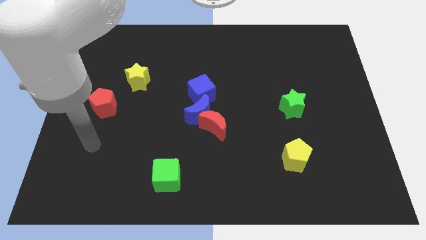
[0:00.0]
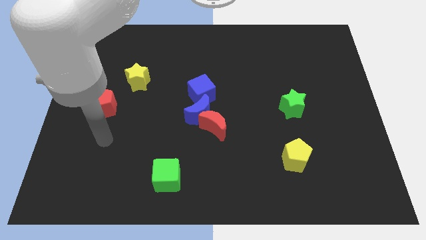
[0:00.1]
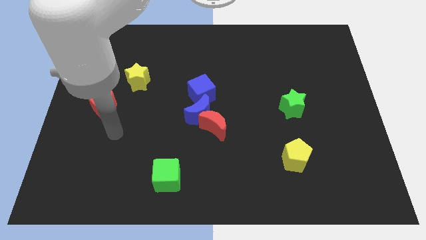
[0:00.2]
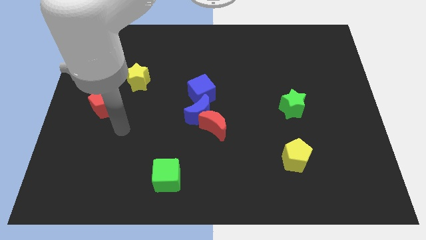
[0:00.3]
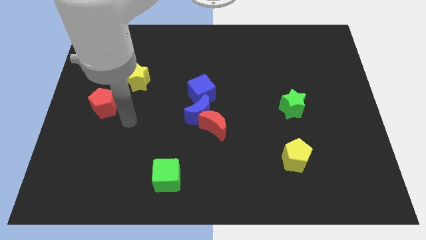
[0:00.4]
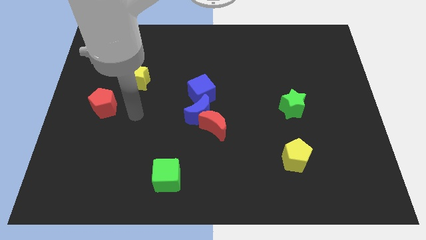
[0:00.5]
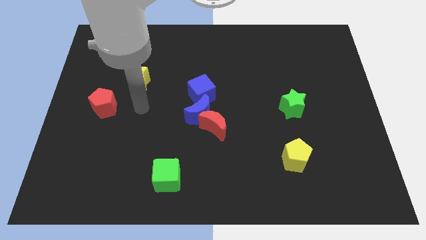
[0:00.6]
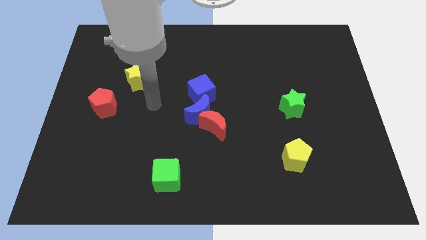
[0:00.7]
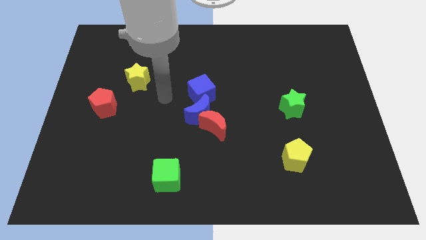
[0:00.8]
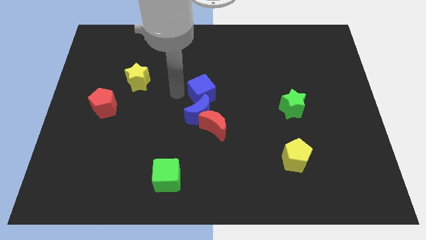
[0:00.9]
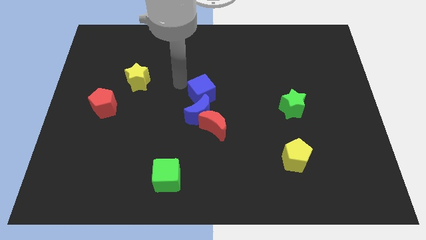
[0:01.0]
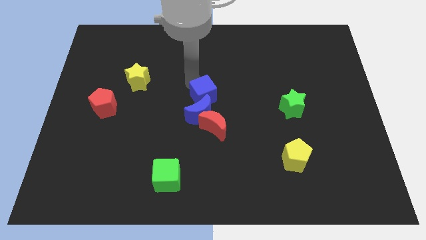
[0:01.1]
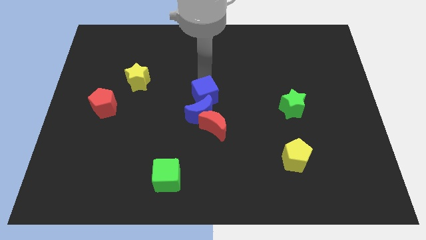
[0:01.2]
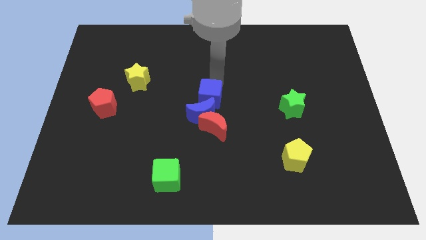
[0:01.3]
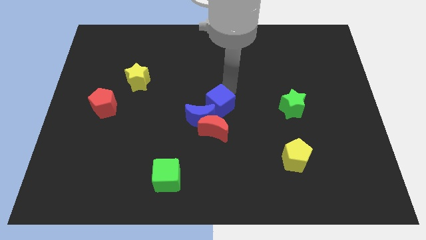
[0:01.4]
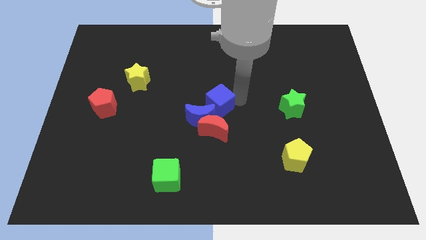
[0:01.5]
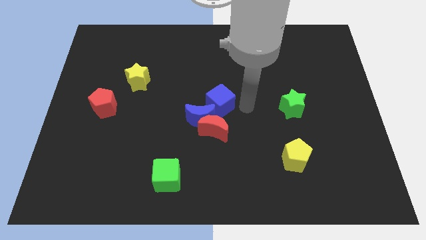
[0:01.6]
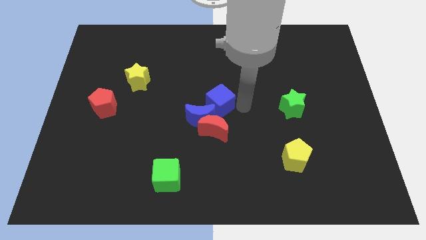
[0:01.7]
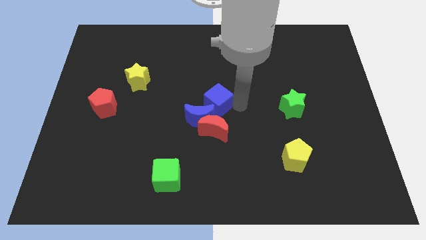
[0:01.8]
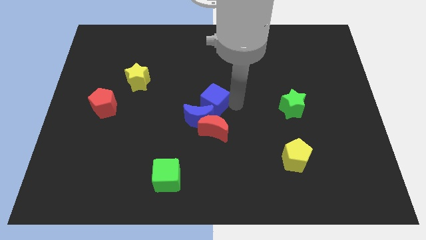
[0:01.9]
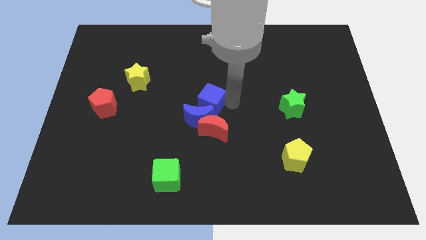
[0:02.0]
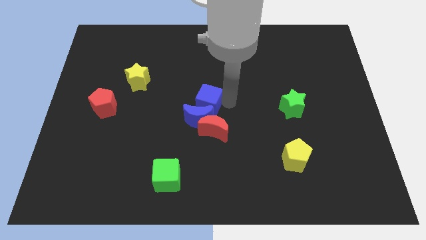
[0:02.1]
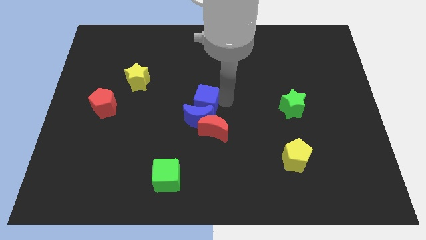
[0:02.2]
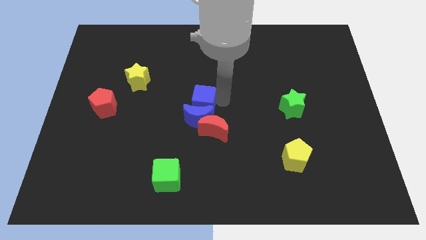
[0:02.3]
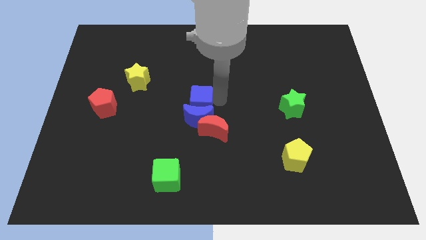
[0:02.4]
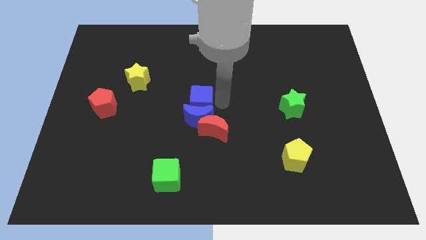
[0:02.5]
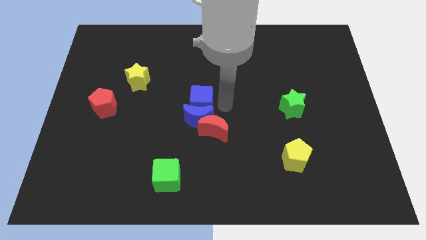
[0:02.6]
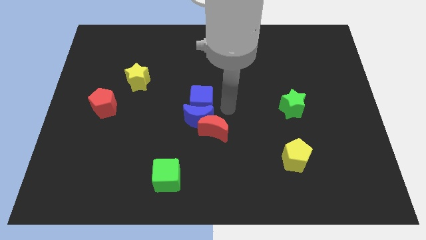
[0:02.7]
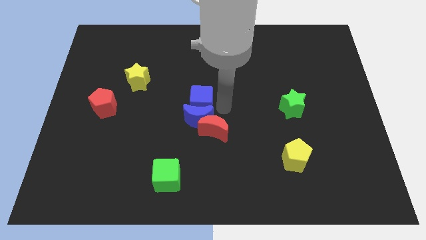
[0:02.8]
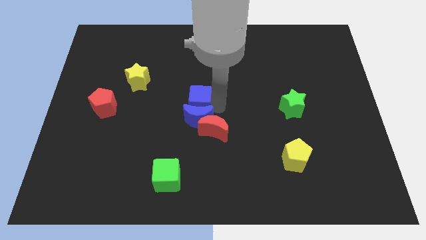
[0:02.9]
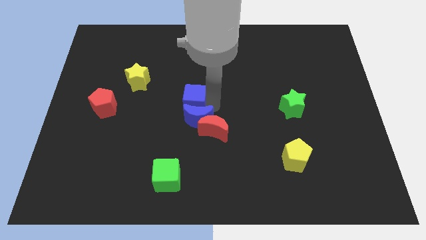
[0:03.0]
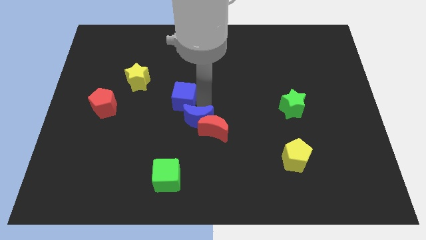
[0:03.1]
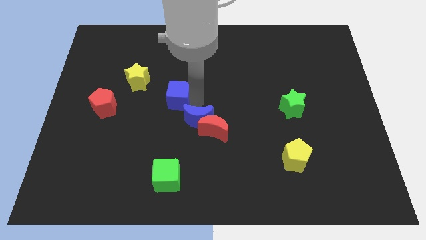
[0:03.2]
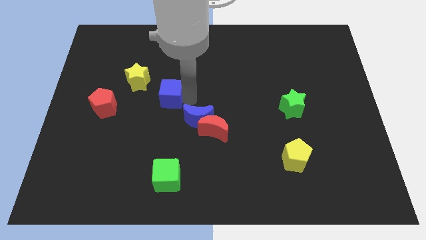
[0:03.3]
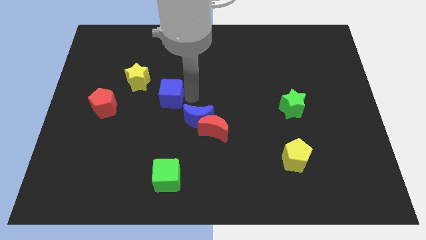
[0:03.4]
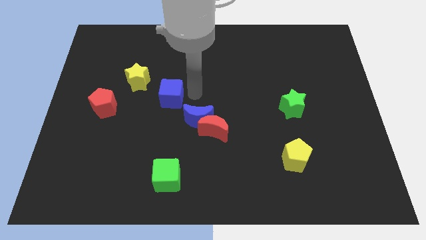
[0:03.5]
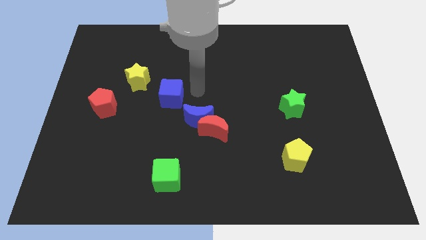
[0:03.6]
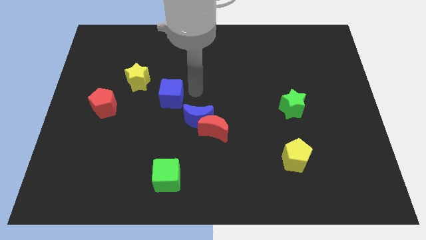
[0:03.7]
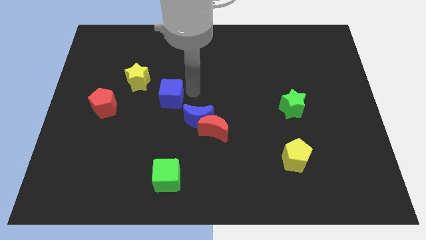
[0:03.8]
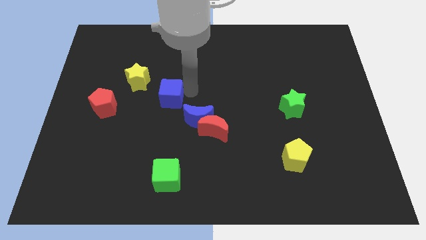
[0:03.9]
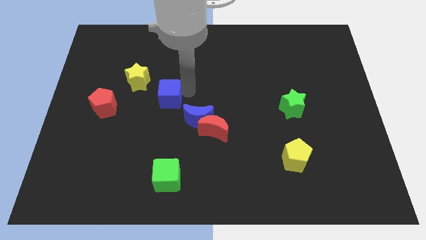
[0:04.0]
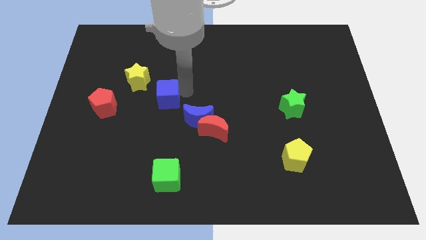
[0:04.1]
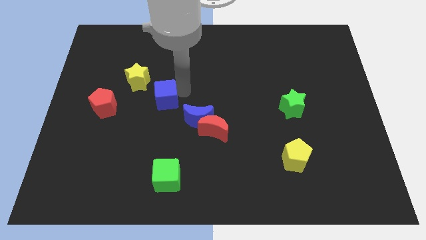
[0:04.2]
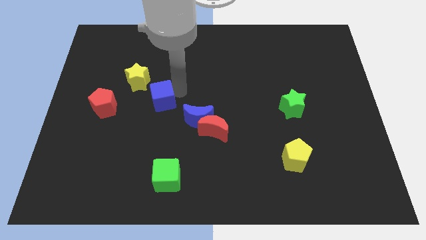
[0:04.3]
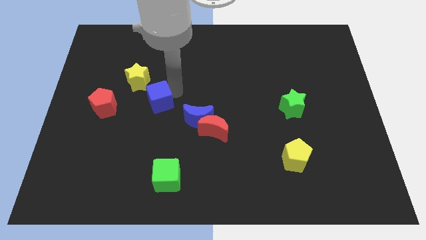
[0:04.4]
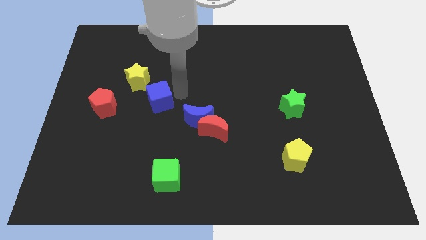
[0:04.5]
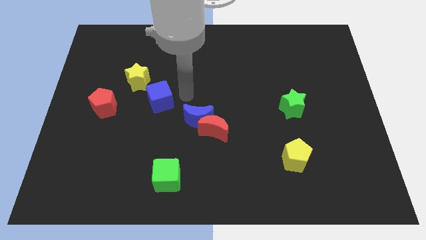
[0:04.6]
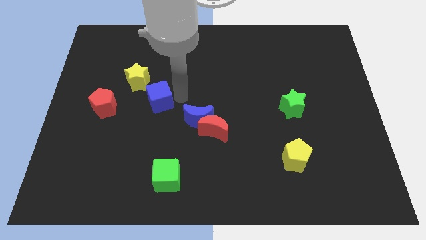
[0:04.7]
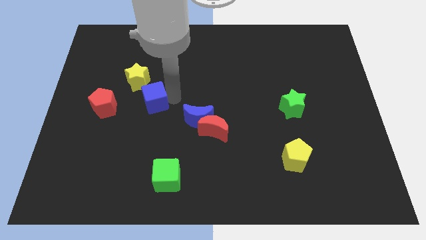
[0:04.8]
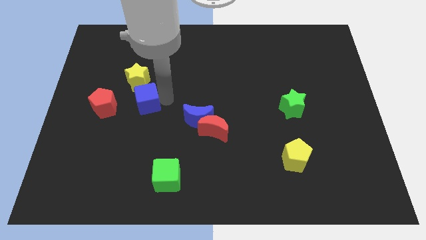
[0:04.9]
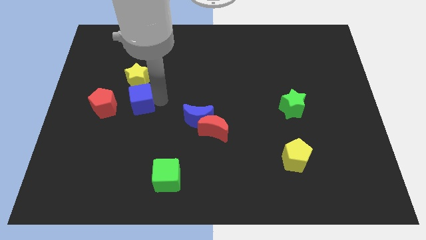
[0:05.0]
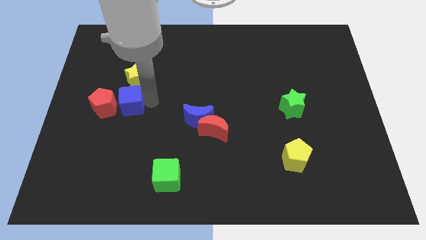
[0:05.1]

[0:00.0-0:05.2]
push the blue cube to the red pentagon
